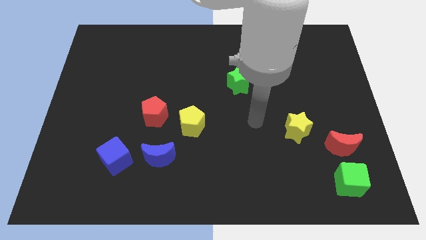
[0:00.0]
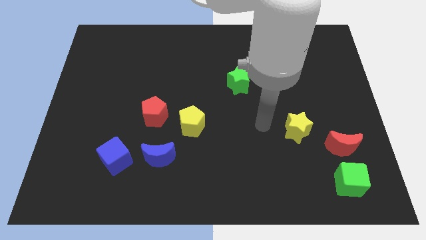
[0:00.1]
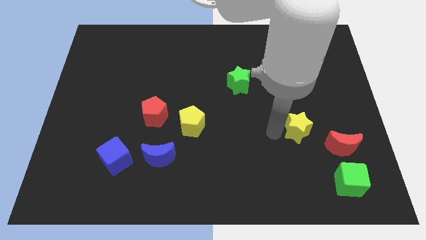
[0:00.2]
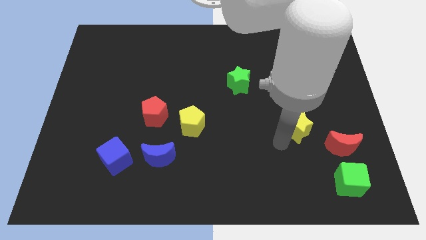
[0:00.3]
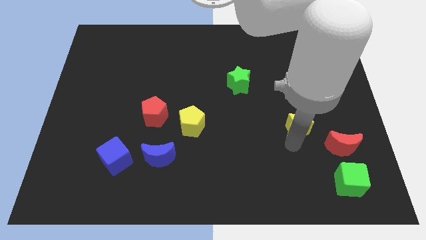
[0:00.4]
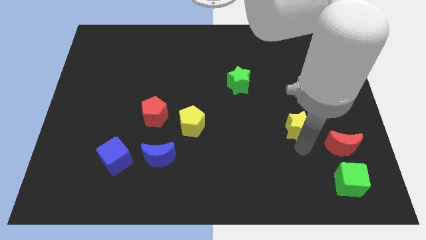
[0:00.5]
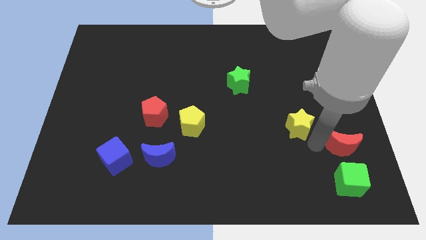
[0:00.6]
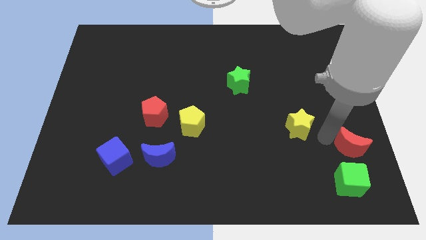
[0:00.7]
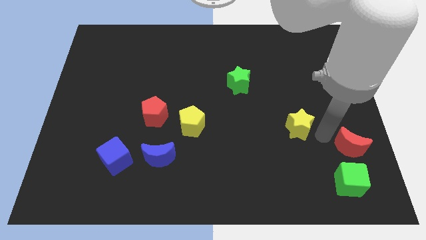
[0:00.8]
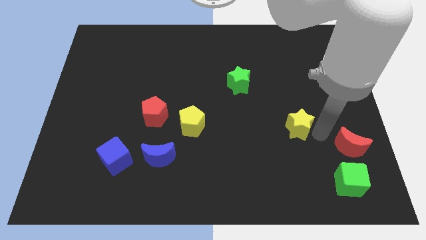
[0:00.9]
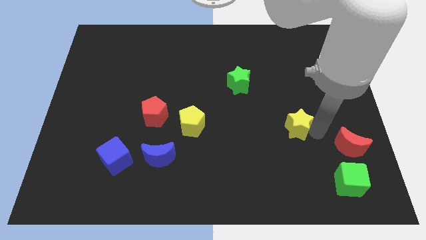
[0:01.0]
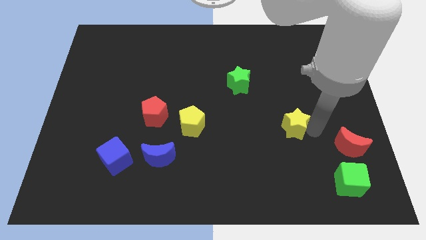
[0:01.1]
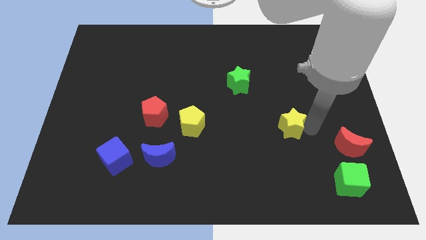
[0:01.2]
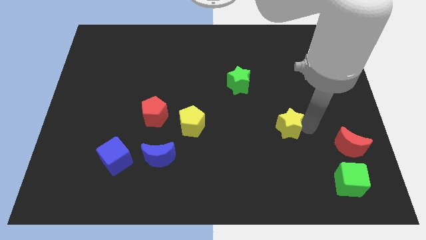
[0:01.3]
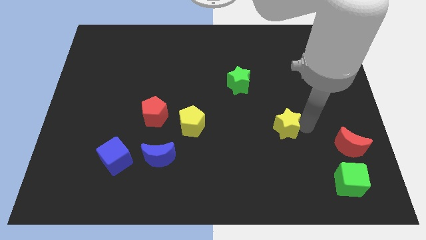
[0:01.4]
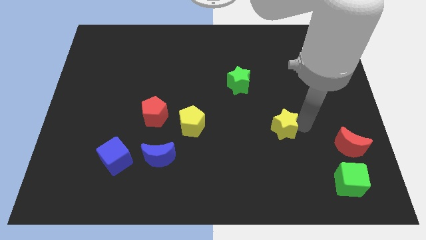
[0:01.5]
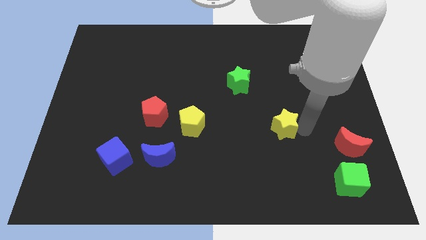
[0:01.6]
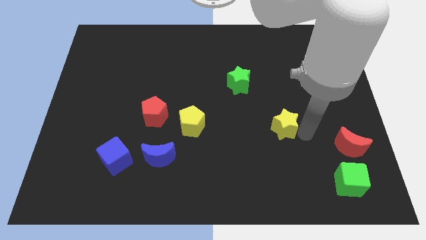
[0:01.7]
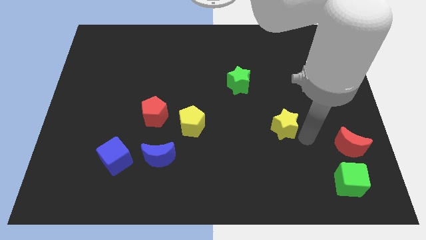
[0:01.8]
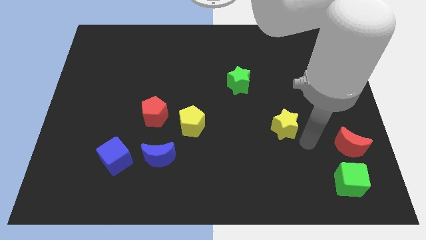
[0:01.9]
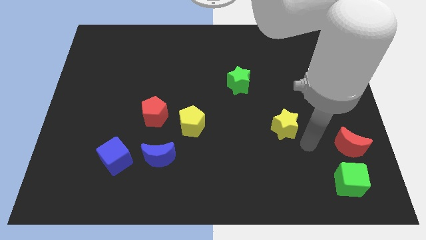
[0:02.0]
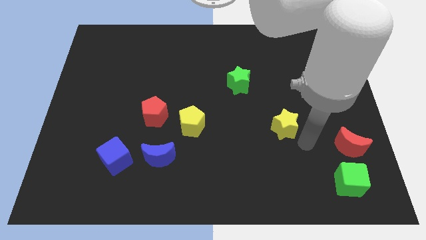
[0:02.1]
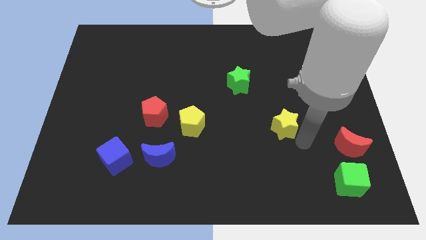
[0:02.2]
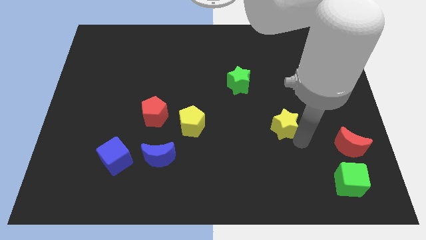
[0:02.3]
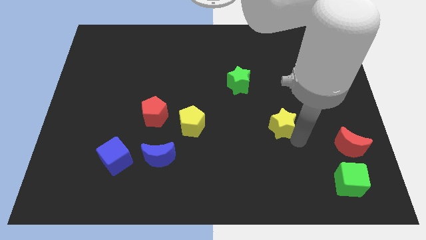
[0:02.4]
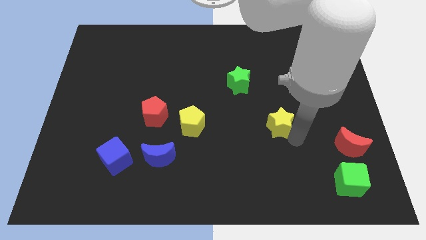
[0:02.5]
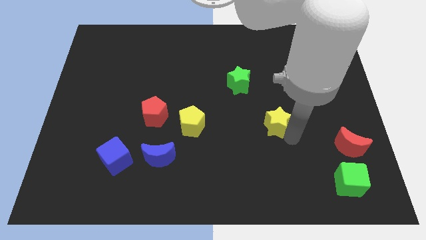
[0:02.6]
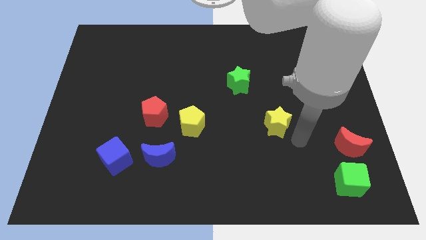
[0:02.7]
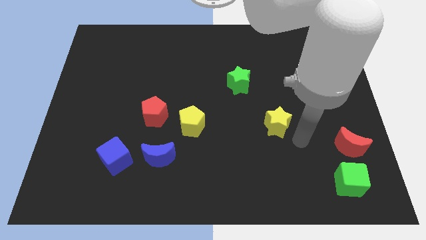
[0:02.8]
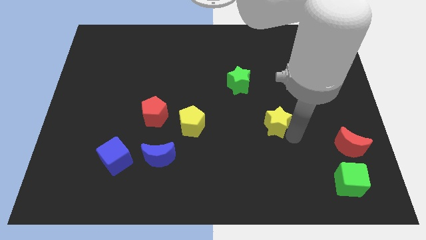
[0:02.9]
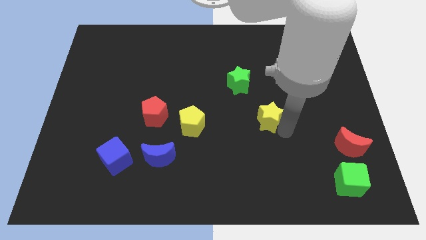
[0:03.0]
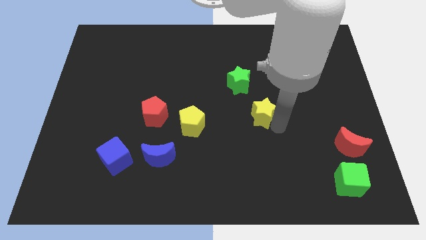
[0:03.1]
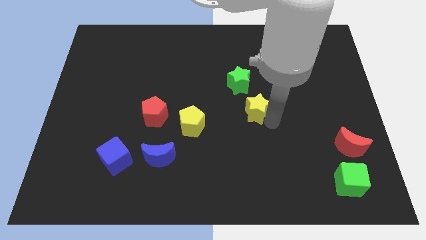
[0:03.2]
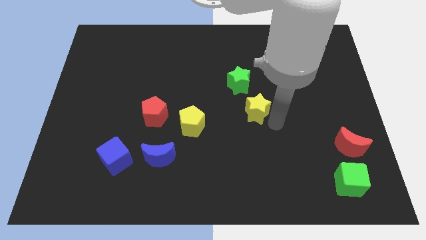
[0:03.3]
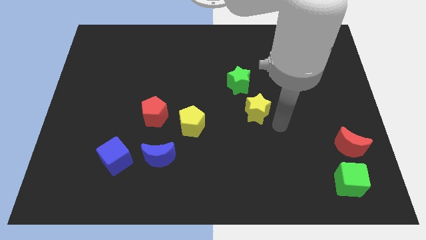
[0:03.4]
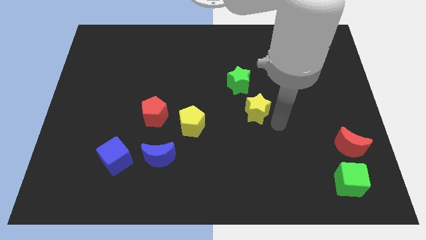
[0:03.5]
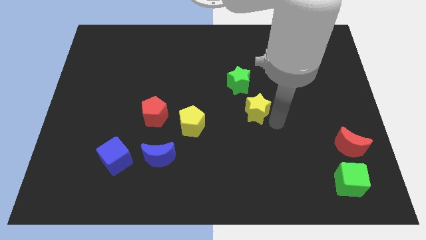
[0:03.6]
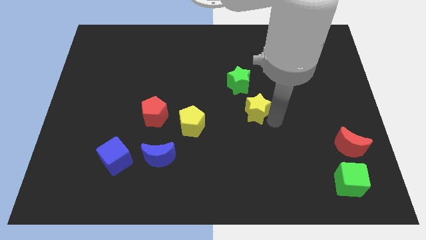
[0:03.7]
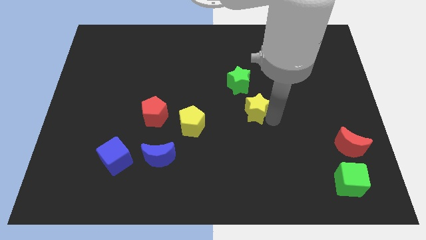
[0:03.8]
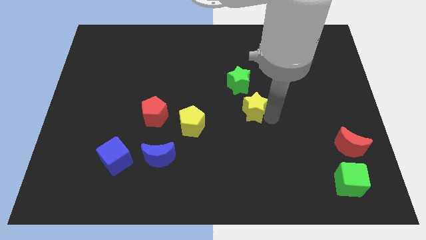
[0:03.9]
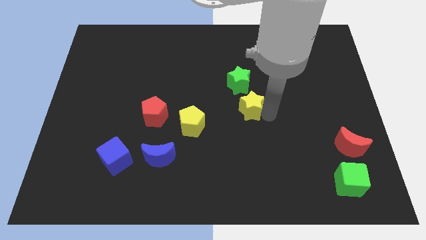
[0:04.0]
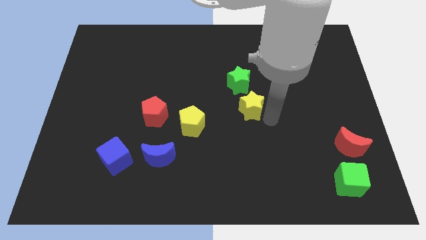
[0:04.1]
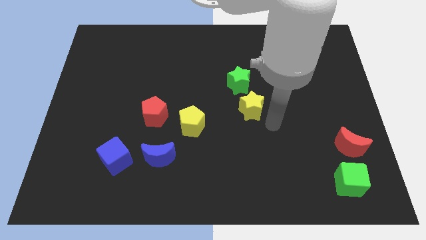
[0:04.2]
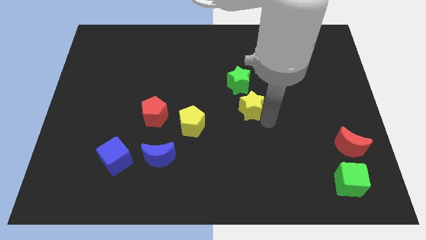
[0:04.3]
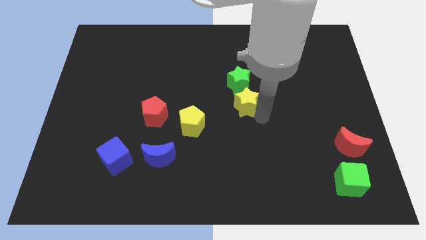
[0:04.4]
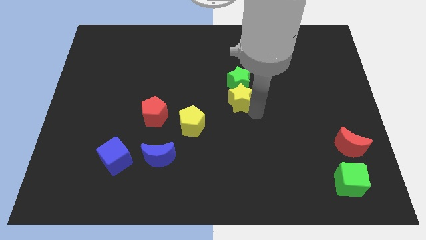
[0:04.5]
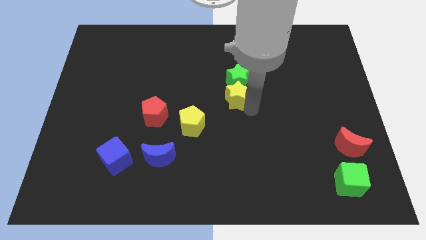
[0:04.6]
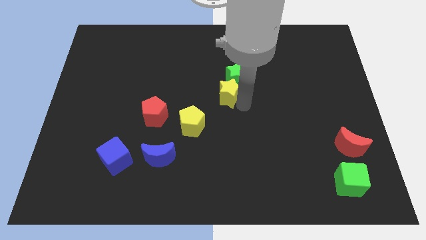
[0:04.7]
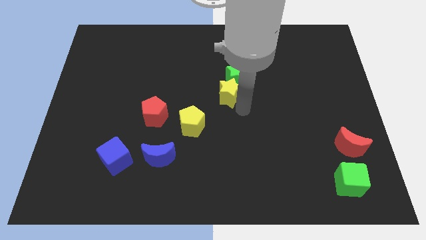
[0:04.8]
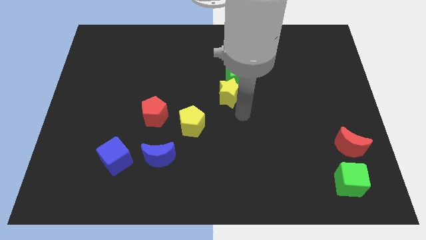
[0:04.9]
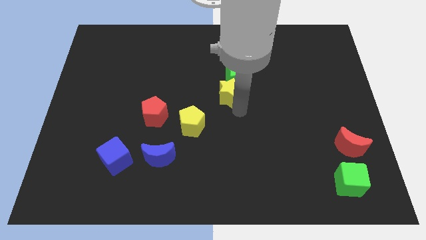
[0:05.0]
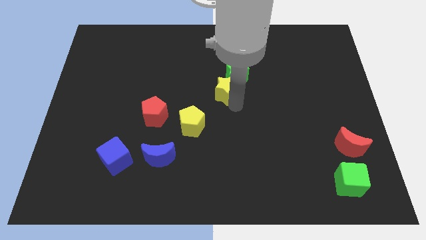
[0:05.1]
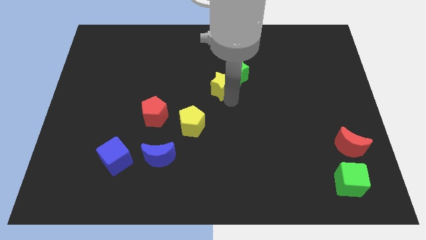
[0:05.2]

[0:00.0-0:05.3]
push the yellow star diagonally upwards and left

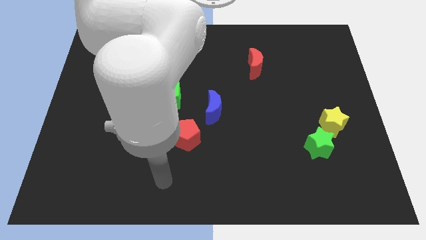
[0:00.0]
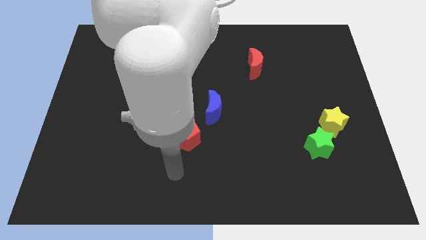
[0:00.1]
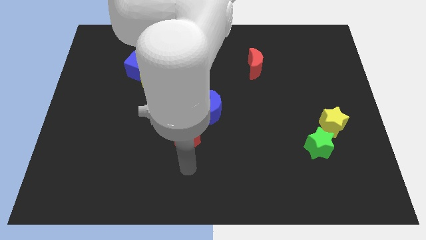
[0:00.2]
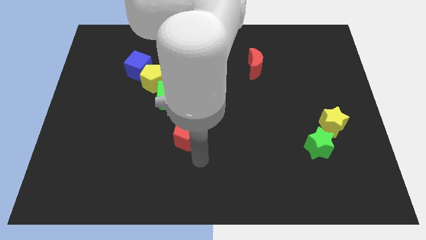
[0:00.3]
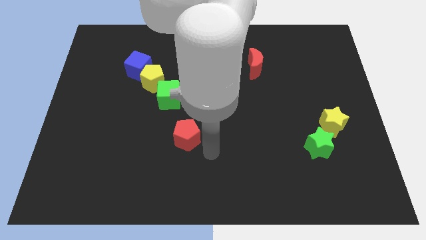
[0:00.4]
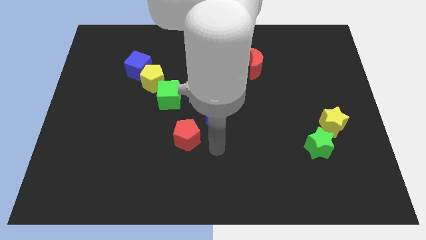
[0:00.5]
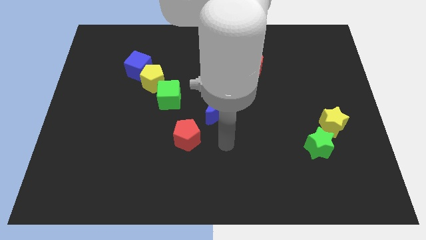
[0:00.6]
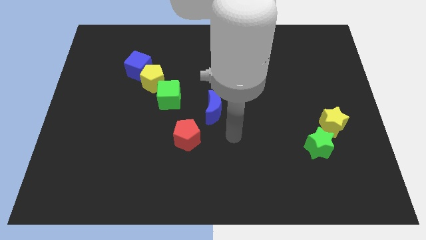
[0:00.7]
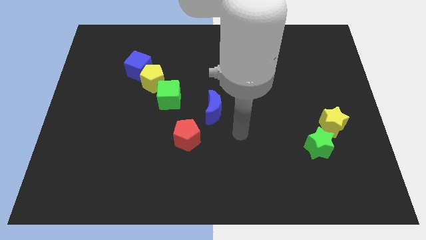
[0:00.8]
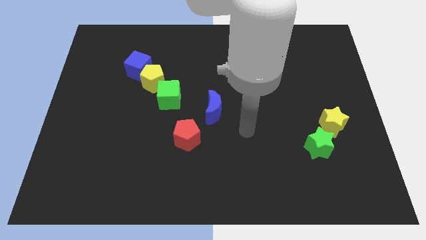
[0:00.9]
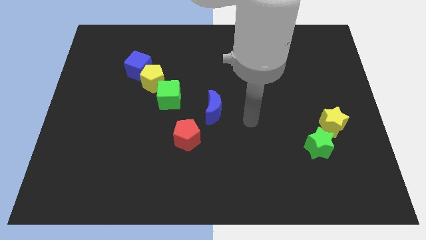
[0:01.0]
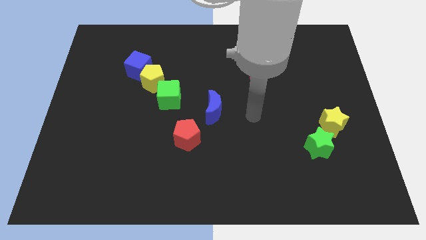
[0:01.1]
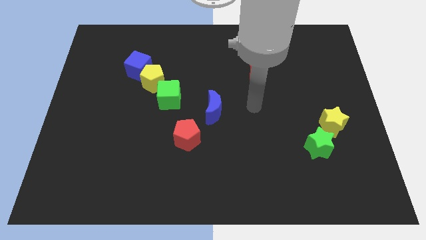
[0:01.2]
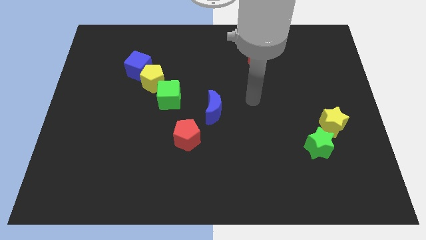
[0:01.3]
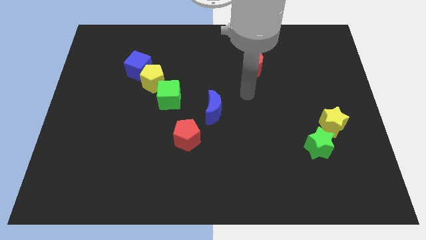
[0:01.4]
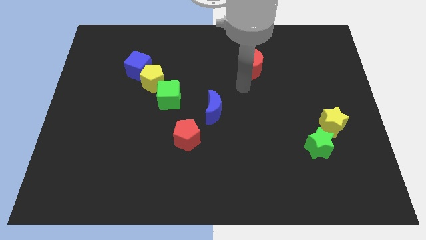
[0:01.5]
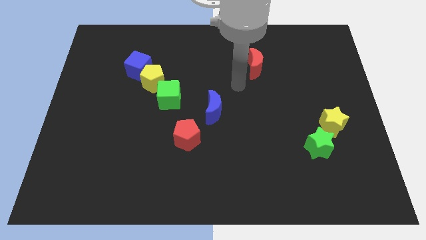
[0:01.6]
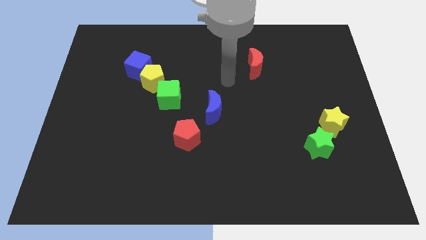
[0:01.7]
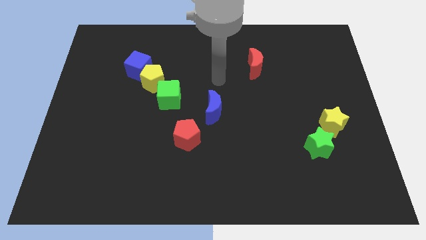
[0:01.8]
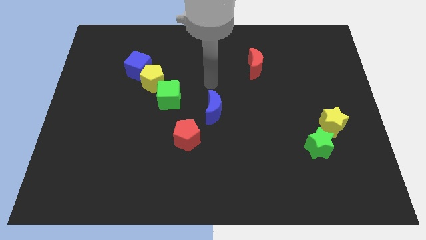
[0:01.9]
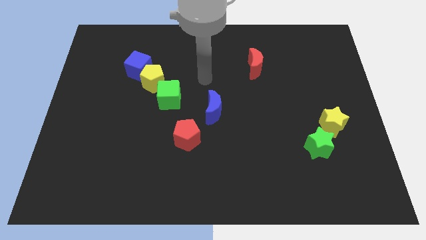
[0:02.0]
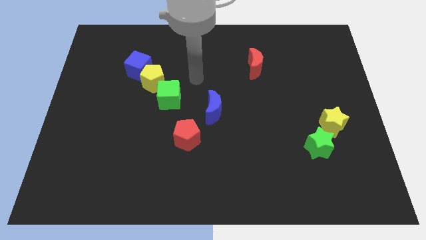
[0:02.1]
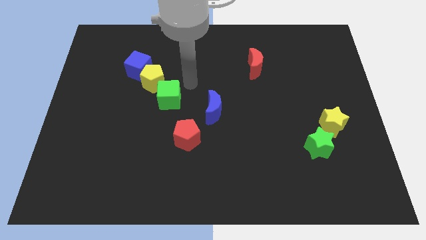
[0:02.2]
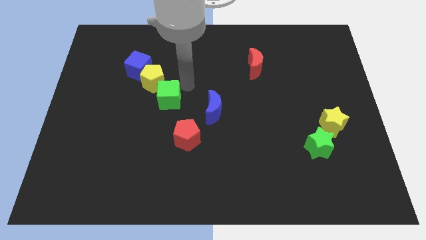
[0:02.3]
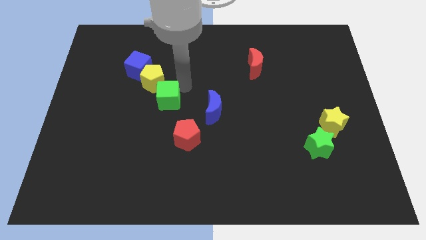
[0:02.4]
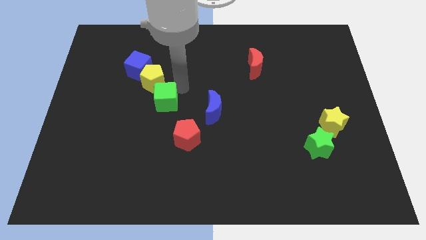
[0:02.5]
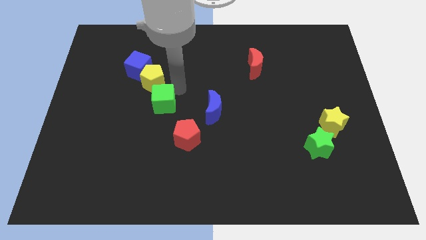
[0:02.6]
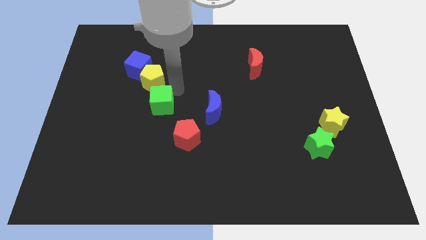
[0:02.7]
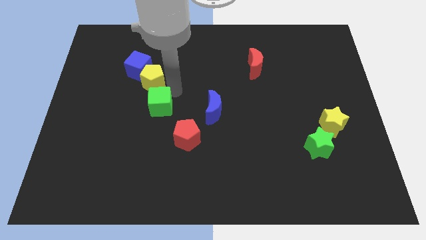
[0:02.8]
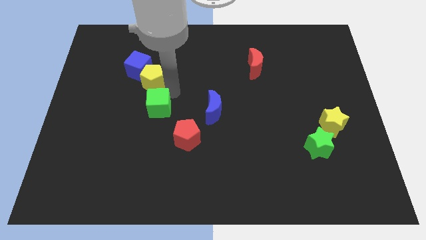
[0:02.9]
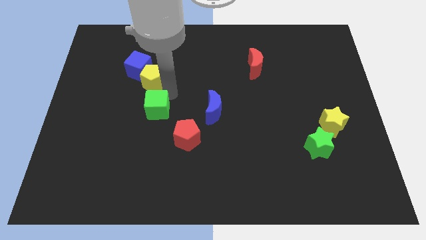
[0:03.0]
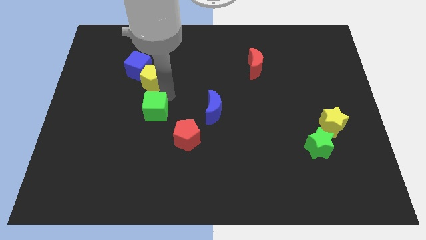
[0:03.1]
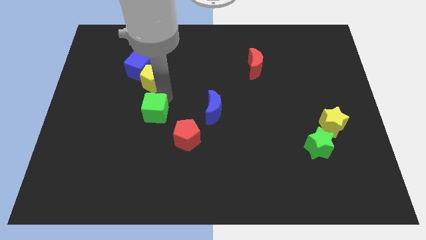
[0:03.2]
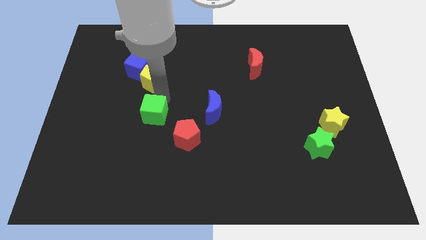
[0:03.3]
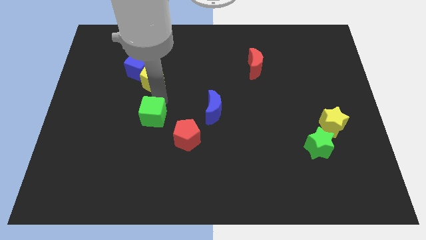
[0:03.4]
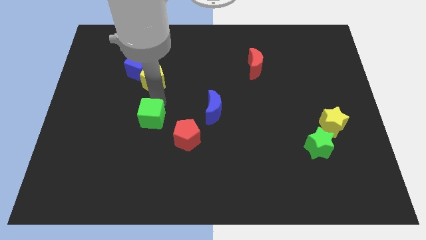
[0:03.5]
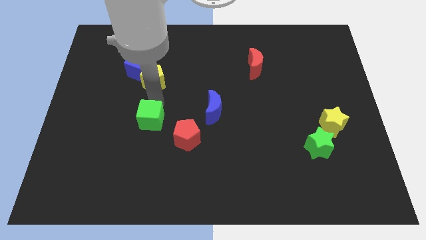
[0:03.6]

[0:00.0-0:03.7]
slightly move the green cube down and left
